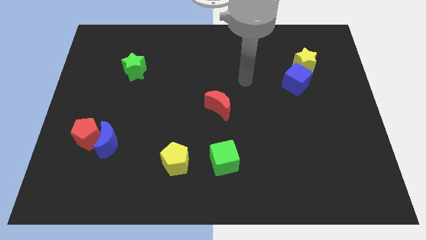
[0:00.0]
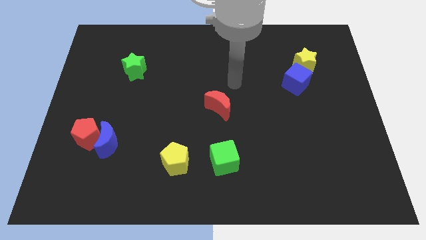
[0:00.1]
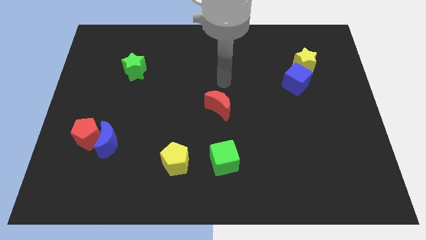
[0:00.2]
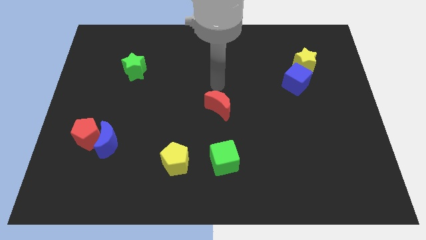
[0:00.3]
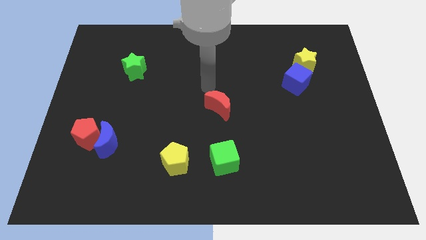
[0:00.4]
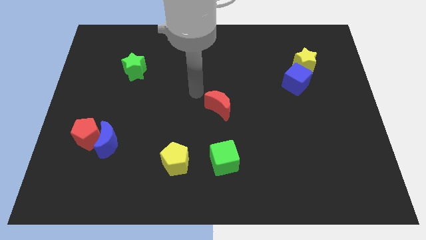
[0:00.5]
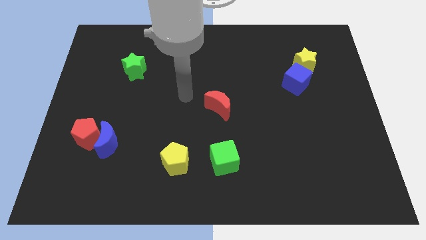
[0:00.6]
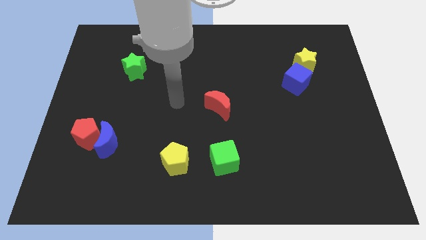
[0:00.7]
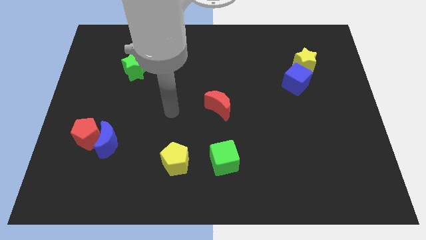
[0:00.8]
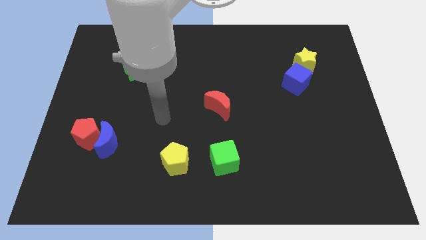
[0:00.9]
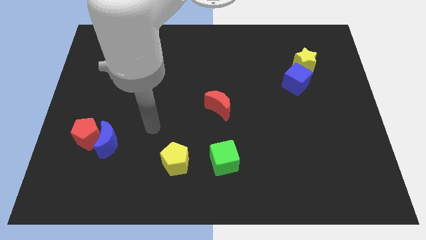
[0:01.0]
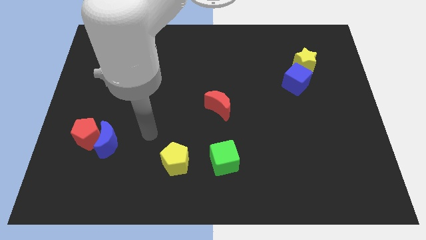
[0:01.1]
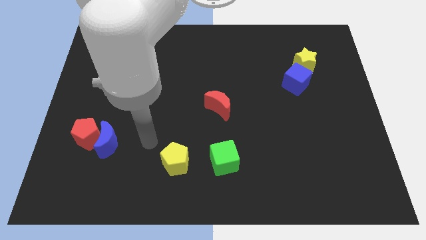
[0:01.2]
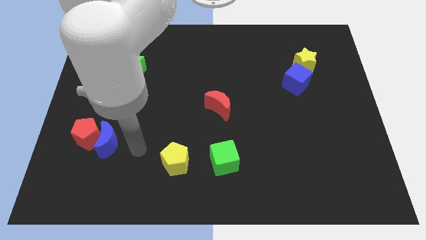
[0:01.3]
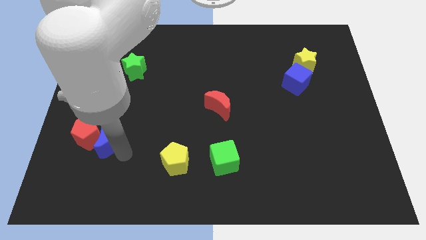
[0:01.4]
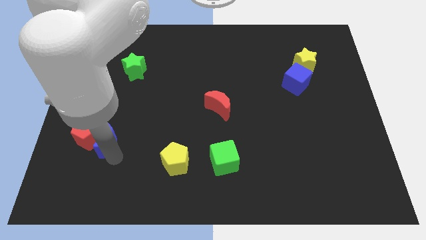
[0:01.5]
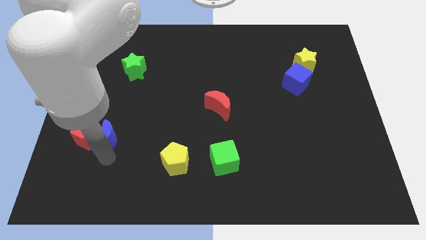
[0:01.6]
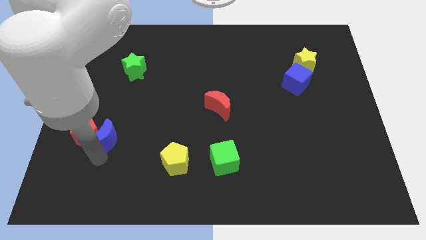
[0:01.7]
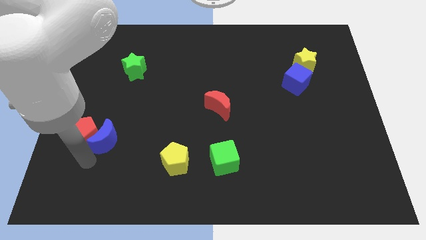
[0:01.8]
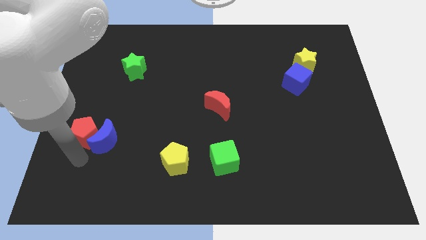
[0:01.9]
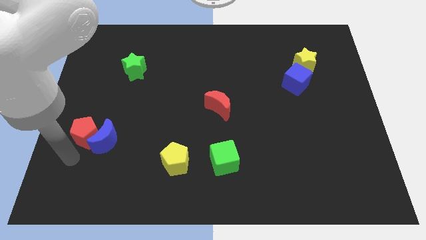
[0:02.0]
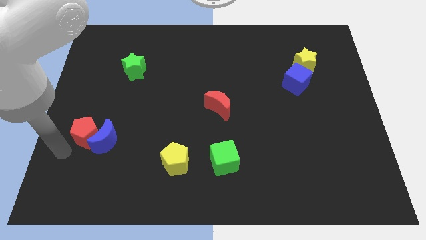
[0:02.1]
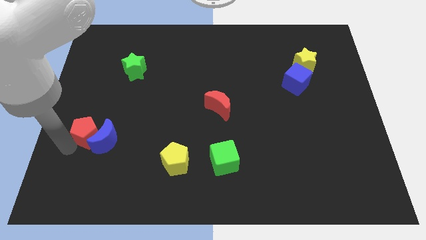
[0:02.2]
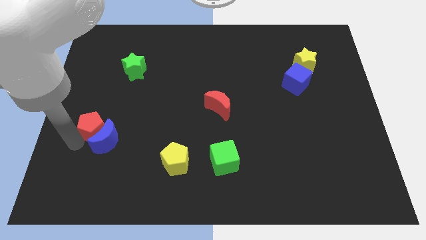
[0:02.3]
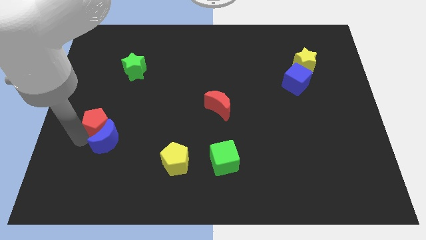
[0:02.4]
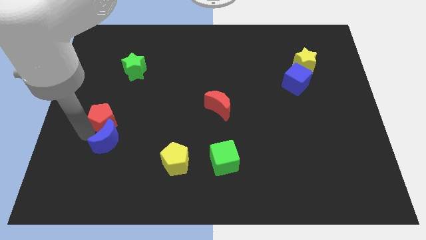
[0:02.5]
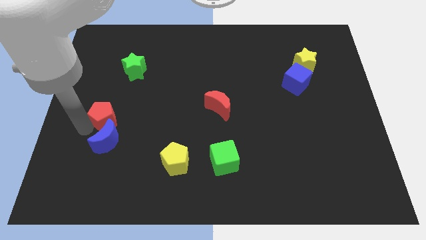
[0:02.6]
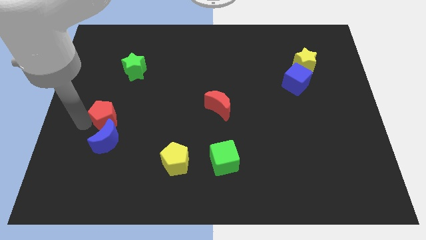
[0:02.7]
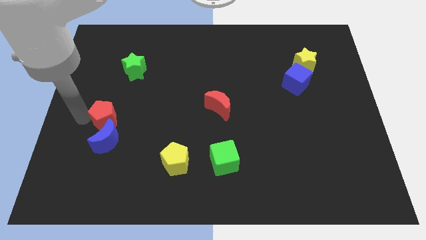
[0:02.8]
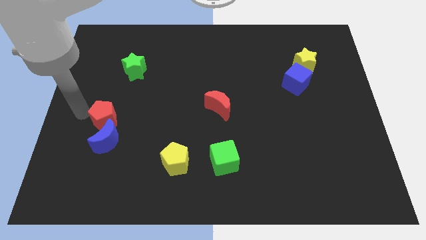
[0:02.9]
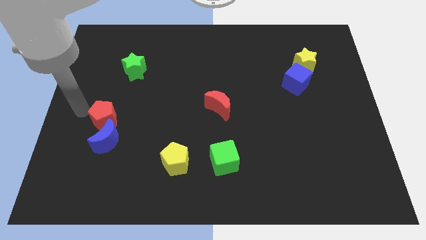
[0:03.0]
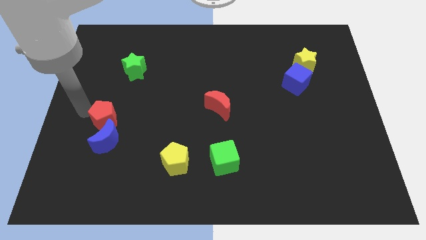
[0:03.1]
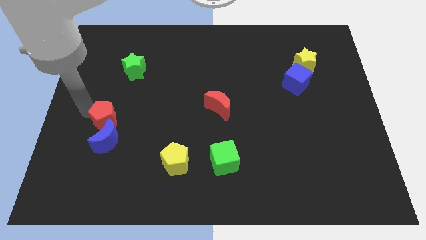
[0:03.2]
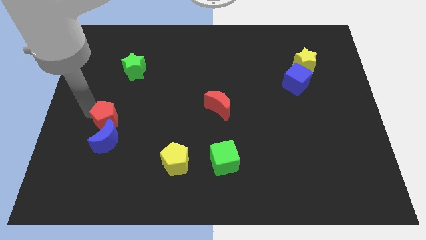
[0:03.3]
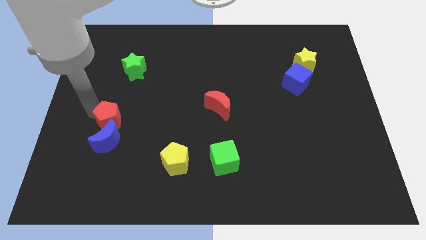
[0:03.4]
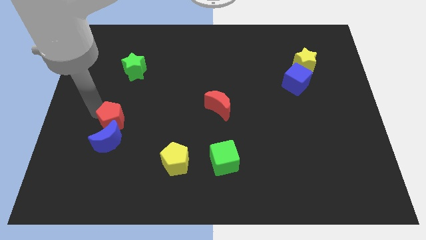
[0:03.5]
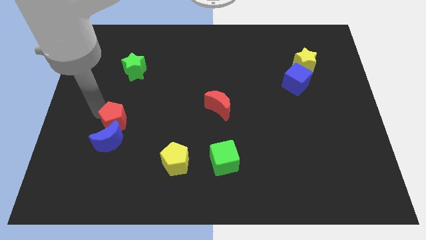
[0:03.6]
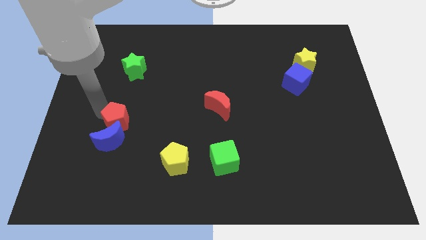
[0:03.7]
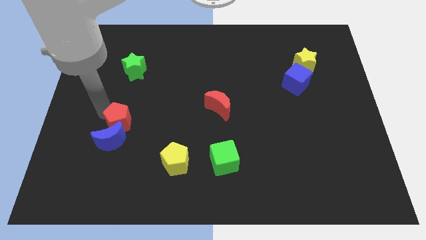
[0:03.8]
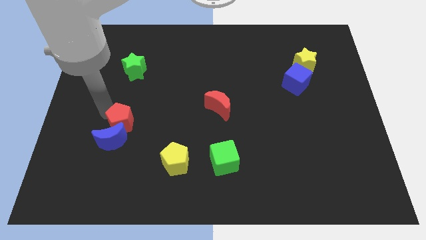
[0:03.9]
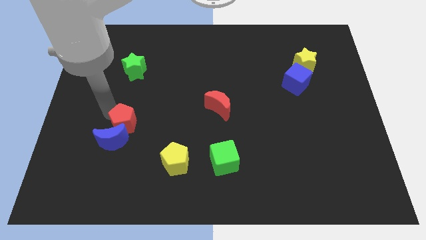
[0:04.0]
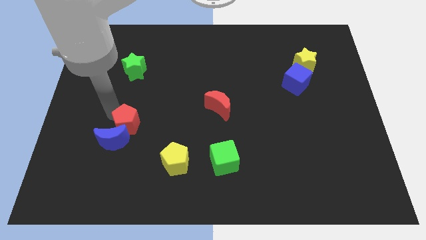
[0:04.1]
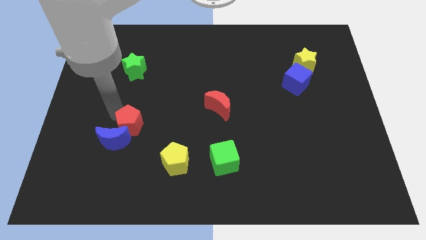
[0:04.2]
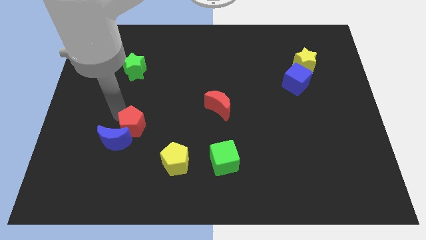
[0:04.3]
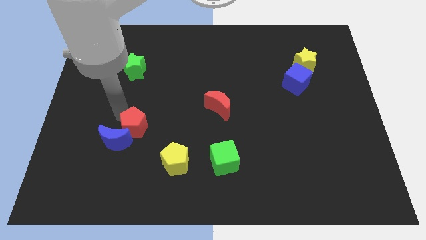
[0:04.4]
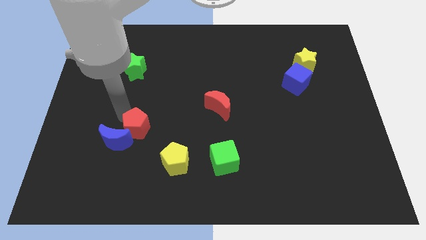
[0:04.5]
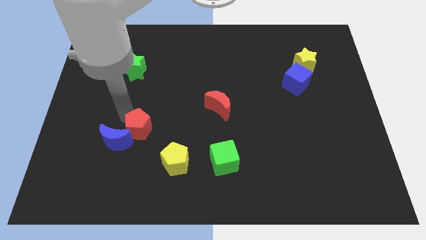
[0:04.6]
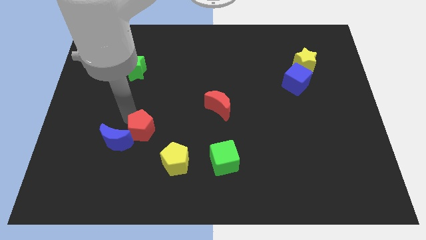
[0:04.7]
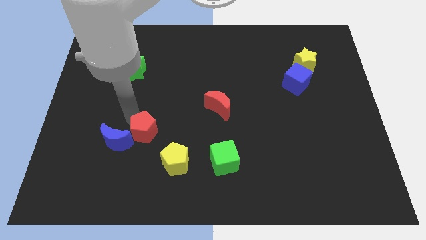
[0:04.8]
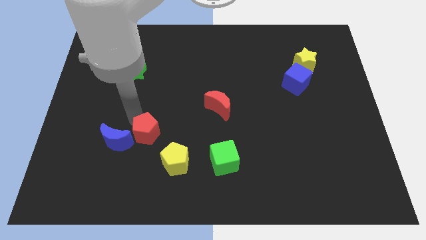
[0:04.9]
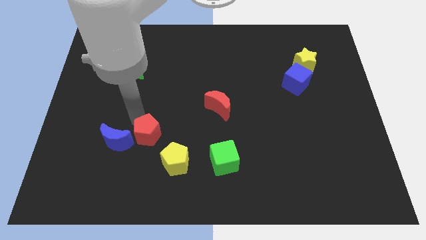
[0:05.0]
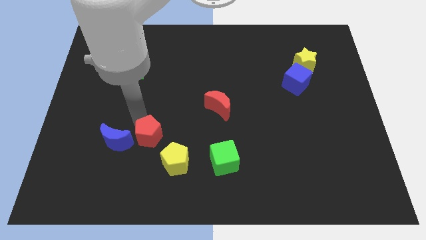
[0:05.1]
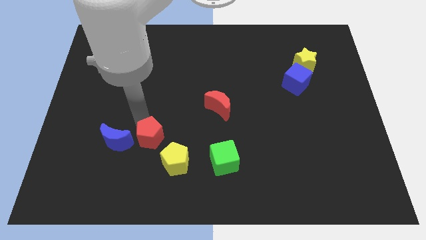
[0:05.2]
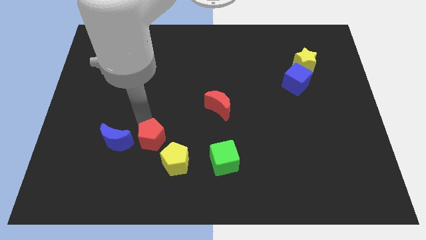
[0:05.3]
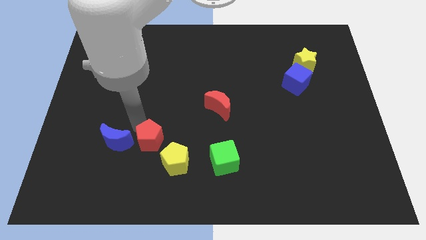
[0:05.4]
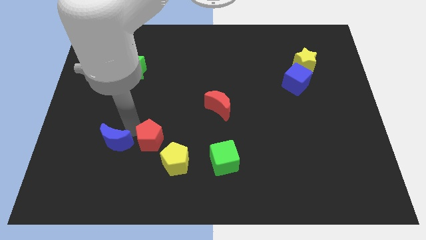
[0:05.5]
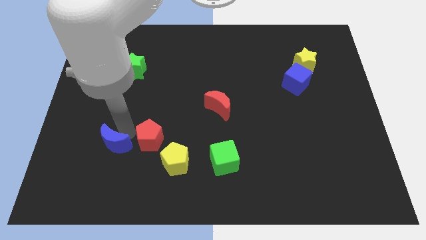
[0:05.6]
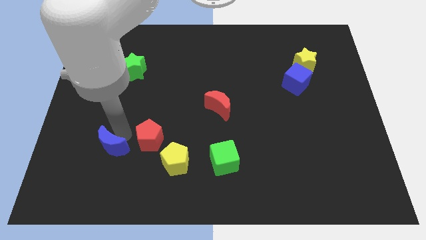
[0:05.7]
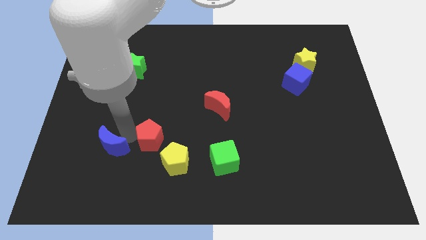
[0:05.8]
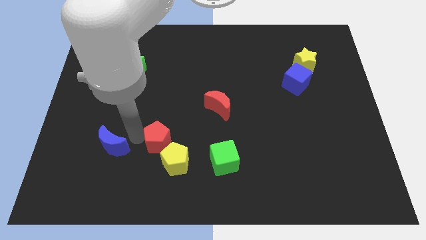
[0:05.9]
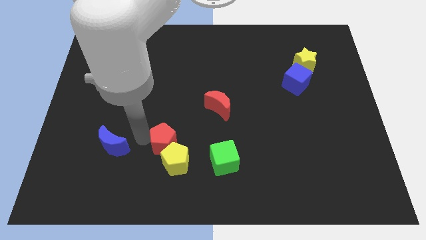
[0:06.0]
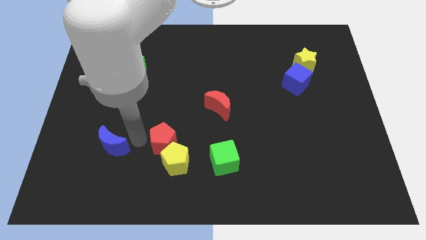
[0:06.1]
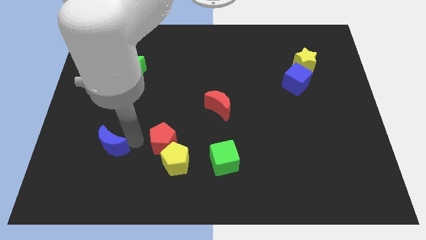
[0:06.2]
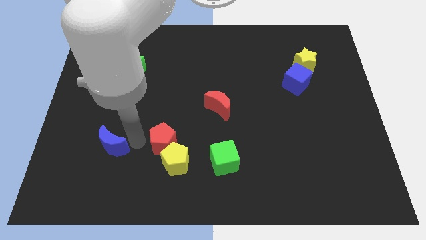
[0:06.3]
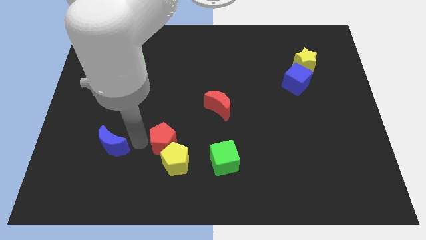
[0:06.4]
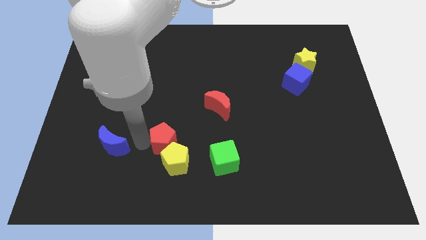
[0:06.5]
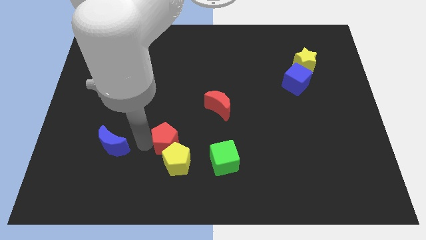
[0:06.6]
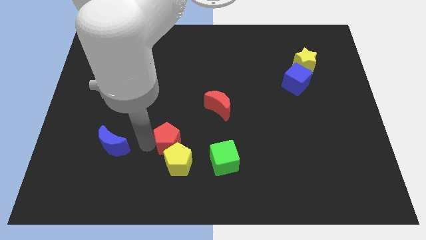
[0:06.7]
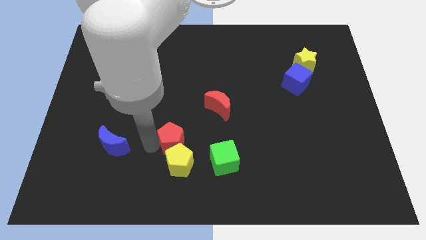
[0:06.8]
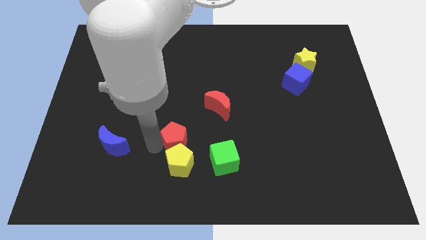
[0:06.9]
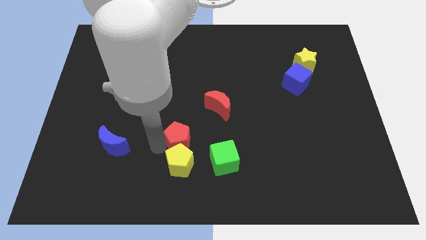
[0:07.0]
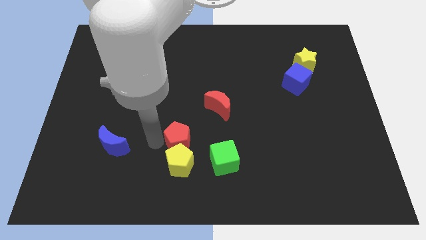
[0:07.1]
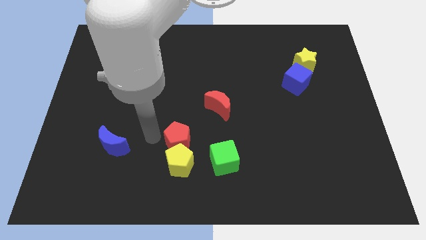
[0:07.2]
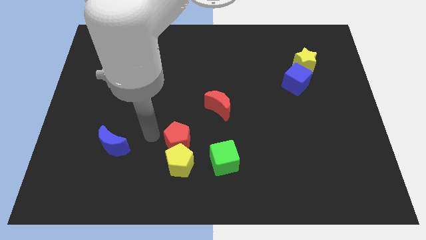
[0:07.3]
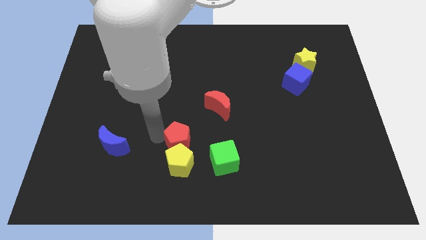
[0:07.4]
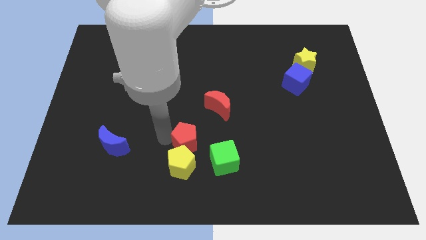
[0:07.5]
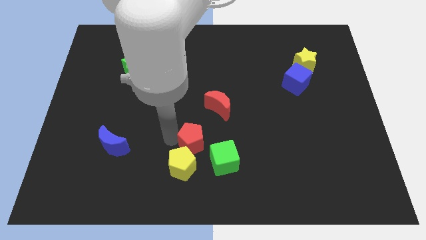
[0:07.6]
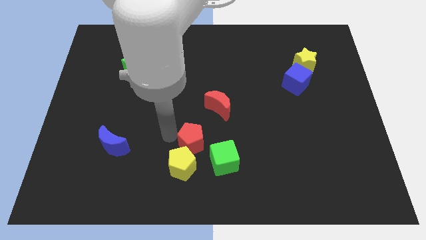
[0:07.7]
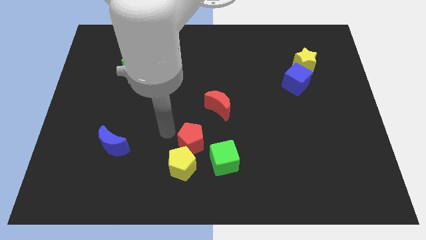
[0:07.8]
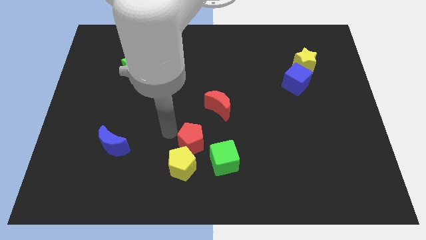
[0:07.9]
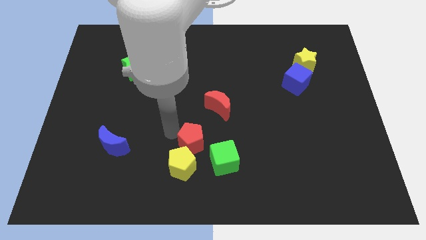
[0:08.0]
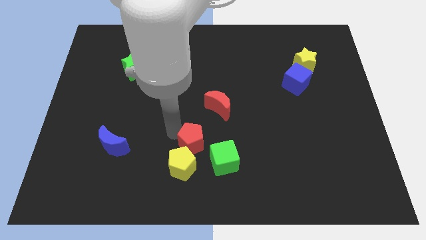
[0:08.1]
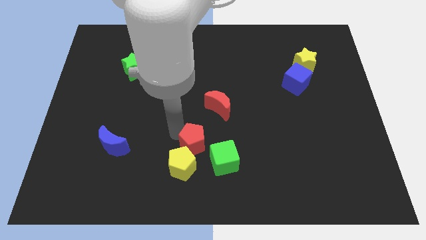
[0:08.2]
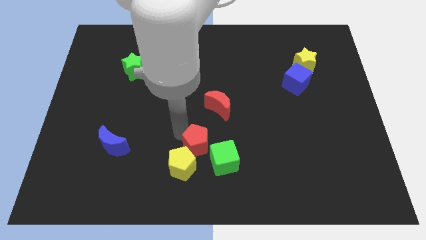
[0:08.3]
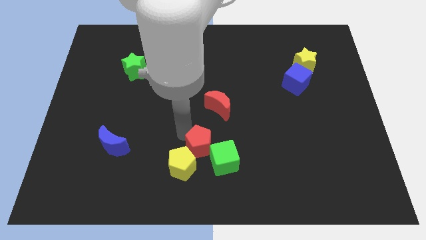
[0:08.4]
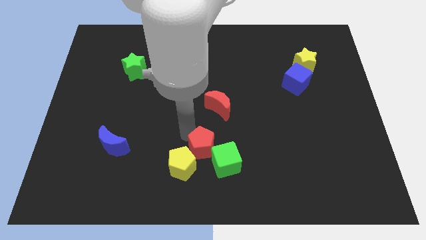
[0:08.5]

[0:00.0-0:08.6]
slide the red pentagon towards the green cube
